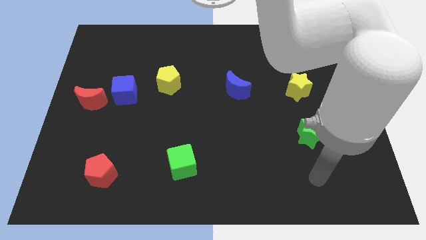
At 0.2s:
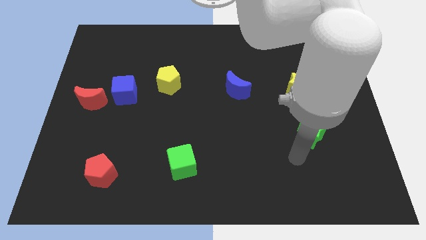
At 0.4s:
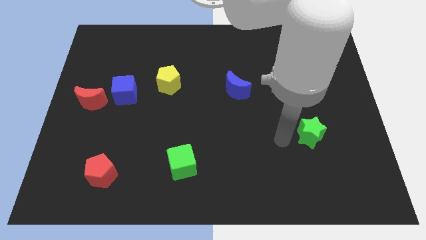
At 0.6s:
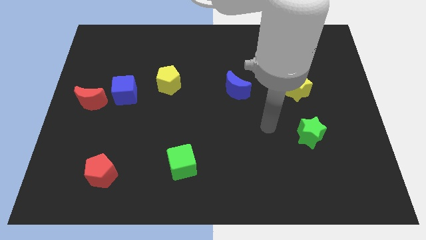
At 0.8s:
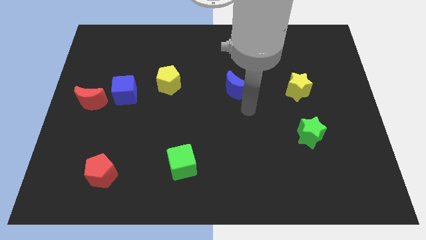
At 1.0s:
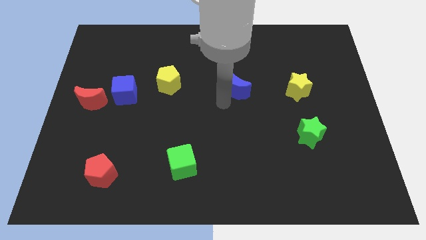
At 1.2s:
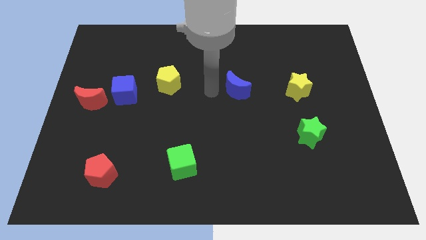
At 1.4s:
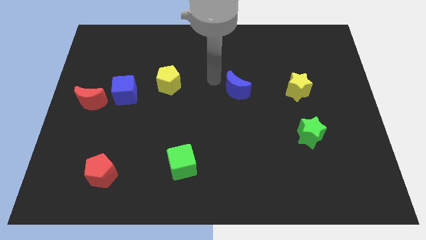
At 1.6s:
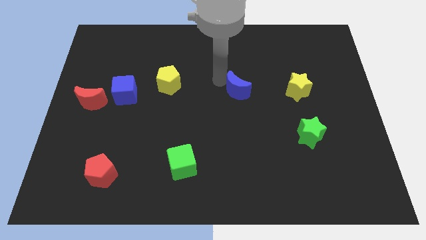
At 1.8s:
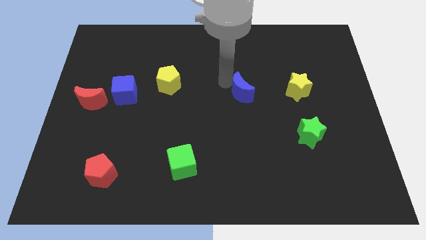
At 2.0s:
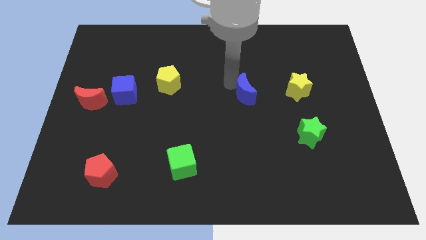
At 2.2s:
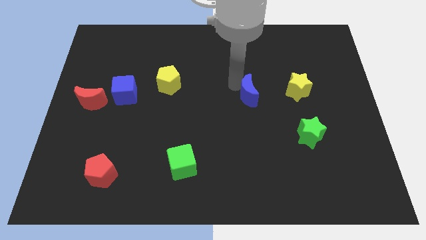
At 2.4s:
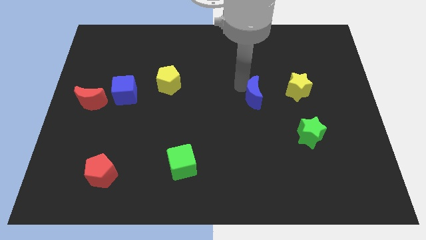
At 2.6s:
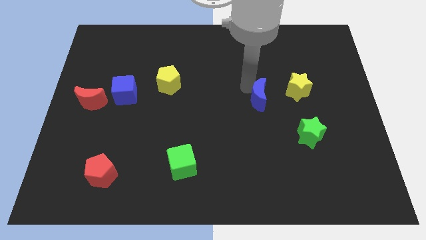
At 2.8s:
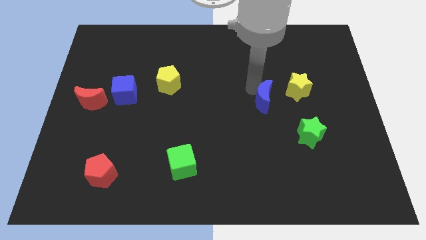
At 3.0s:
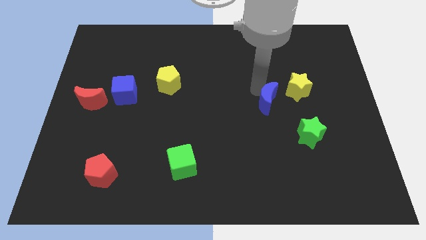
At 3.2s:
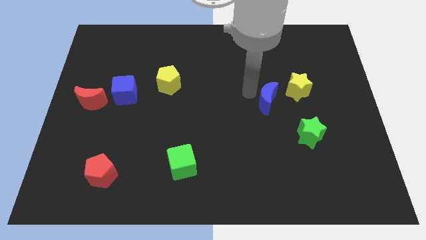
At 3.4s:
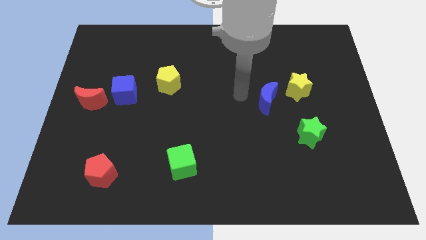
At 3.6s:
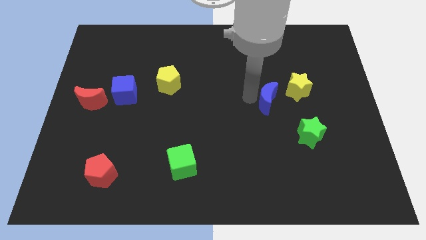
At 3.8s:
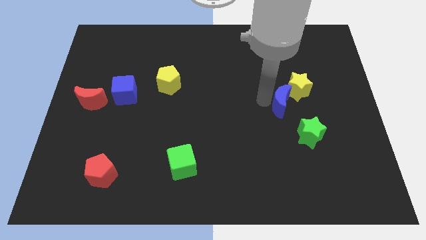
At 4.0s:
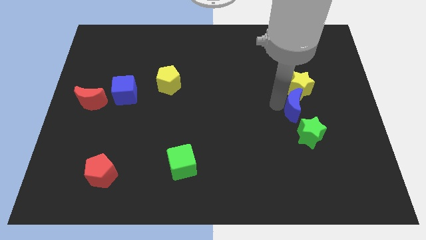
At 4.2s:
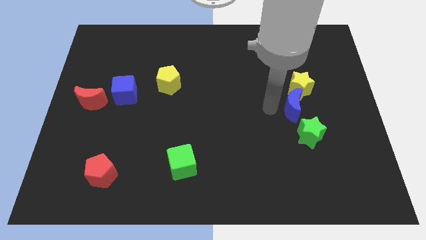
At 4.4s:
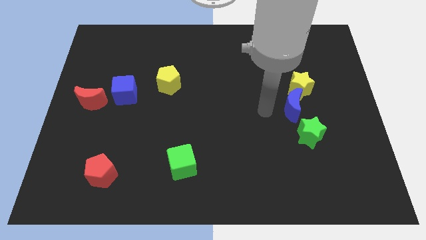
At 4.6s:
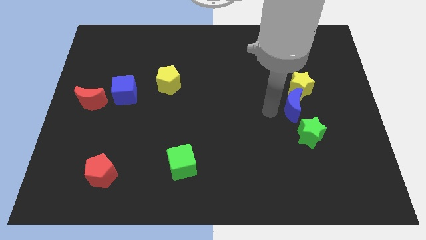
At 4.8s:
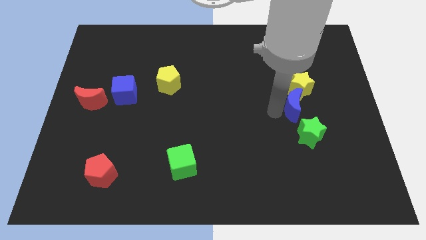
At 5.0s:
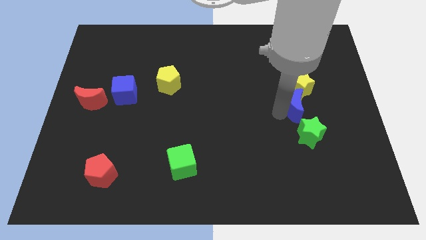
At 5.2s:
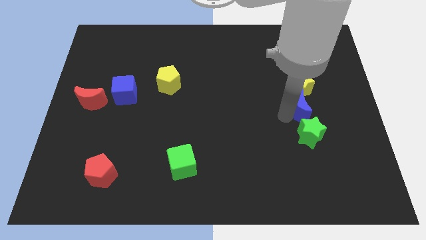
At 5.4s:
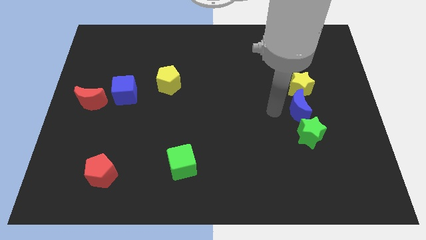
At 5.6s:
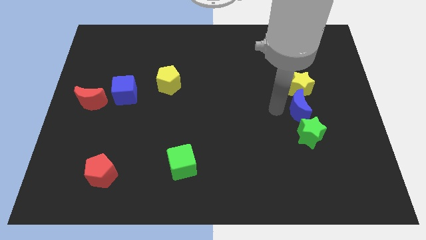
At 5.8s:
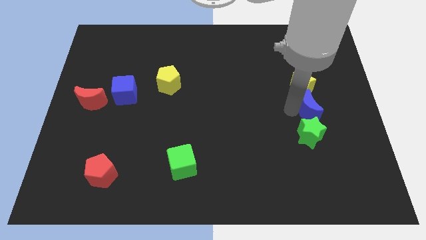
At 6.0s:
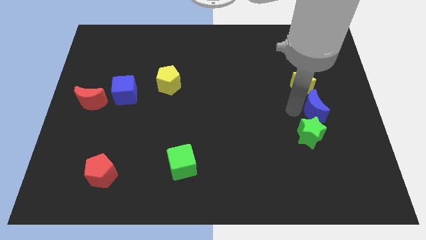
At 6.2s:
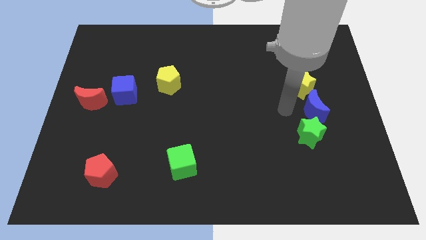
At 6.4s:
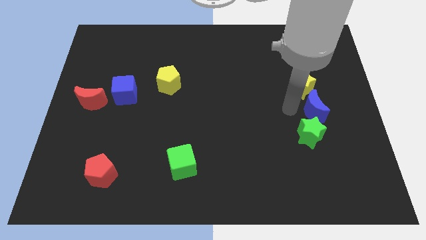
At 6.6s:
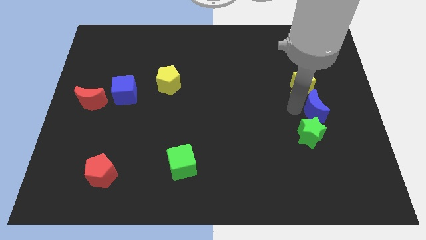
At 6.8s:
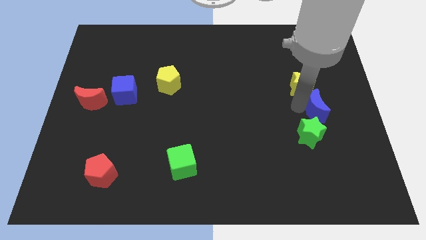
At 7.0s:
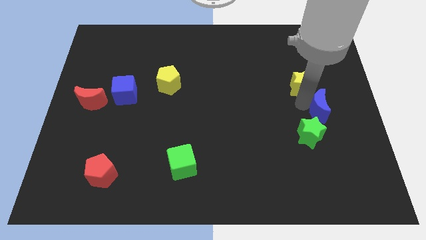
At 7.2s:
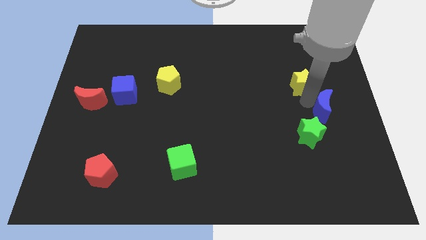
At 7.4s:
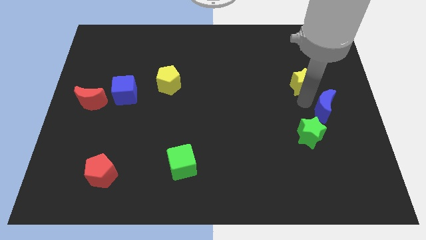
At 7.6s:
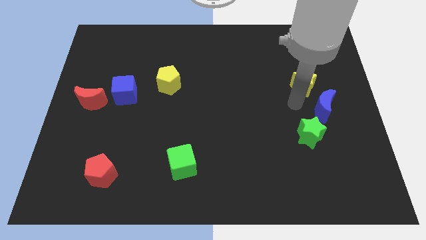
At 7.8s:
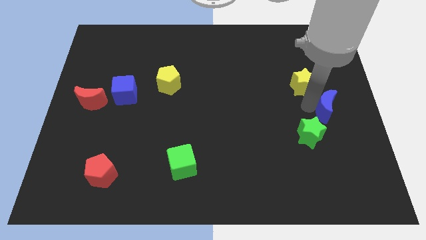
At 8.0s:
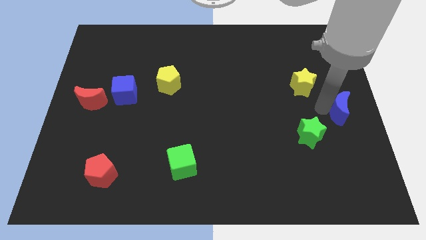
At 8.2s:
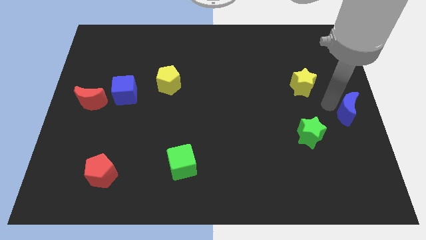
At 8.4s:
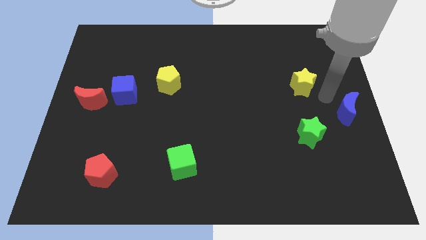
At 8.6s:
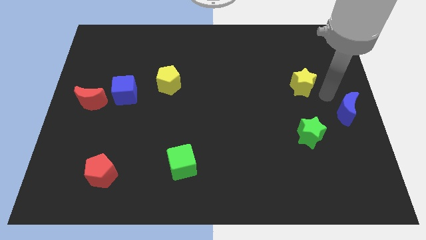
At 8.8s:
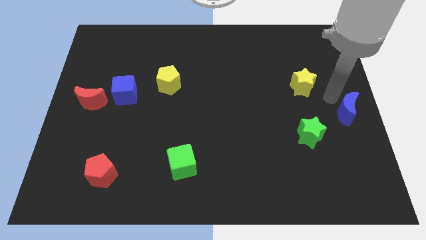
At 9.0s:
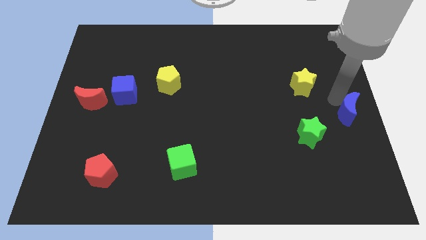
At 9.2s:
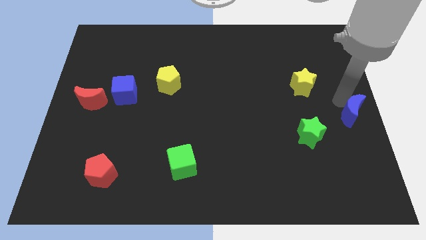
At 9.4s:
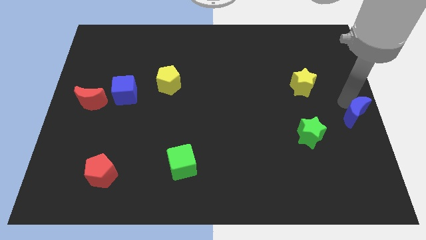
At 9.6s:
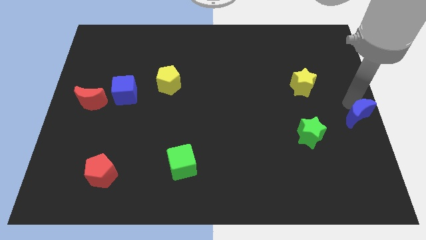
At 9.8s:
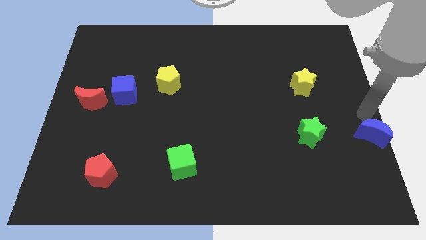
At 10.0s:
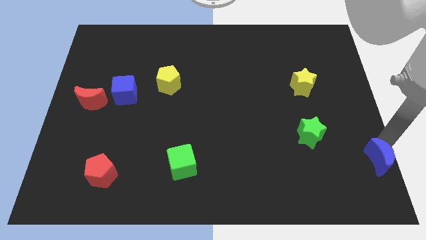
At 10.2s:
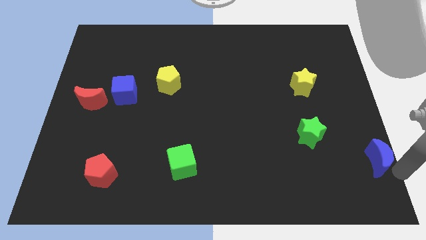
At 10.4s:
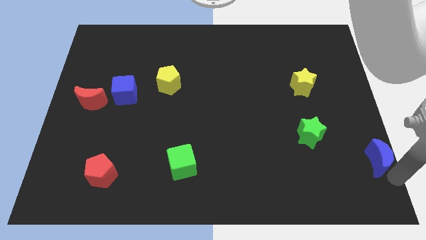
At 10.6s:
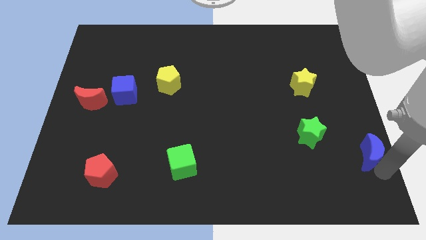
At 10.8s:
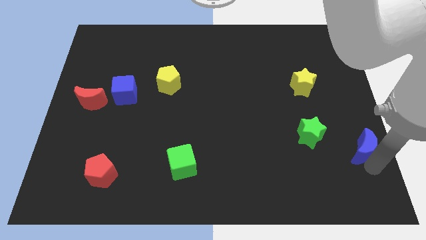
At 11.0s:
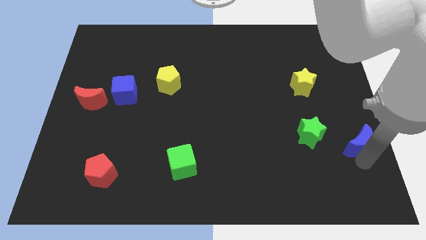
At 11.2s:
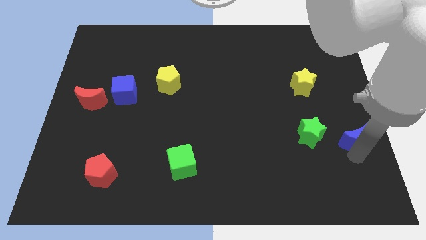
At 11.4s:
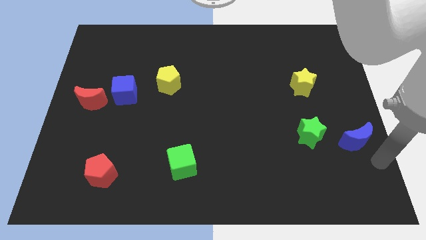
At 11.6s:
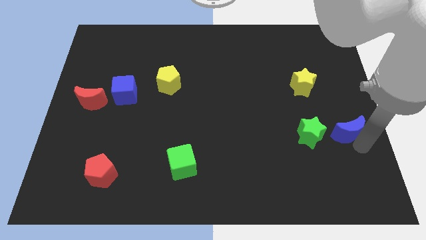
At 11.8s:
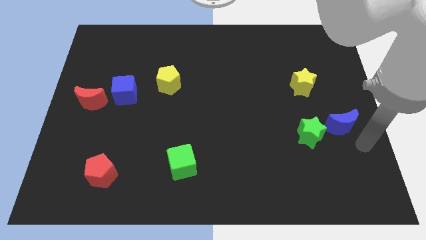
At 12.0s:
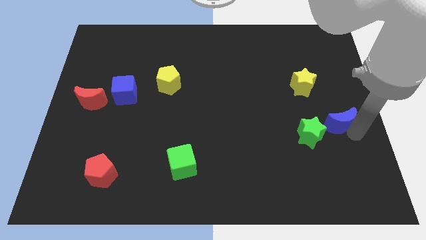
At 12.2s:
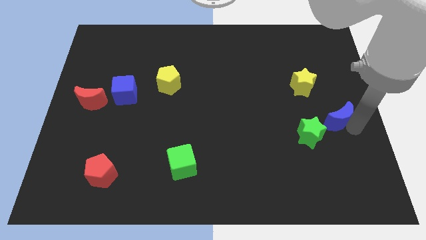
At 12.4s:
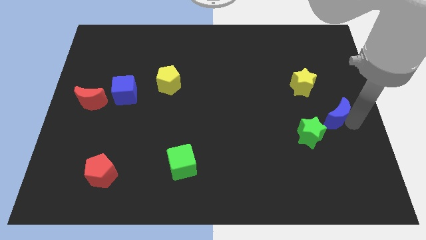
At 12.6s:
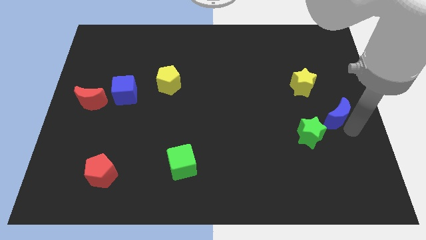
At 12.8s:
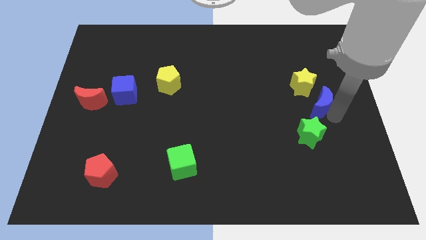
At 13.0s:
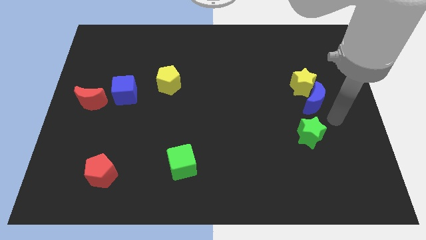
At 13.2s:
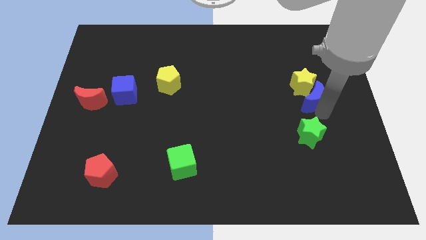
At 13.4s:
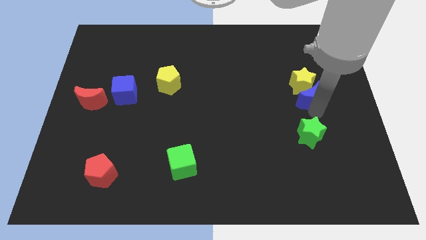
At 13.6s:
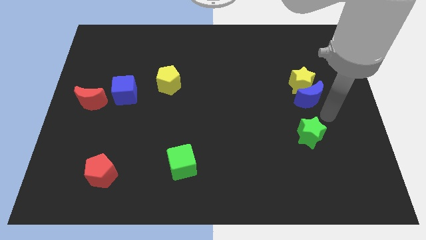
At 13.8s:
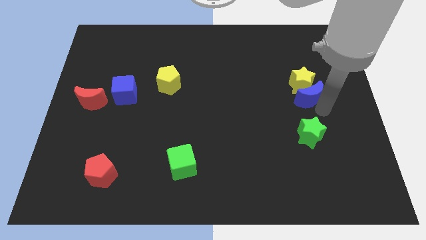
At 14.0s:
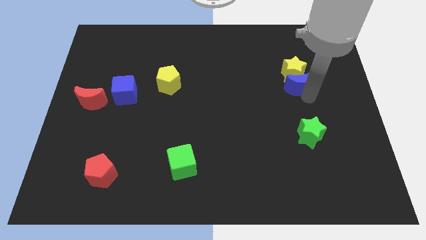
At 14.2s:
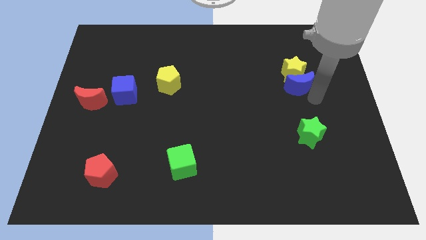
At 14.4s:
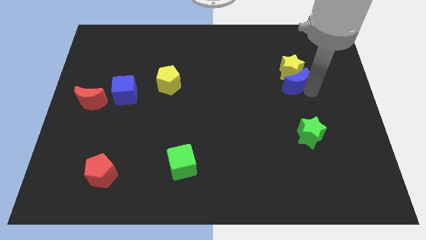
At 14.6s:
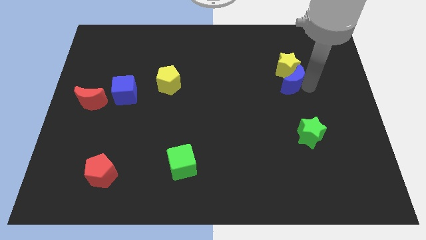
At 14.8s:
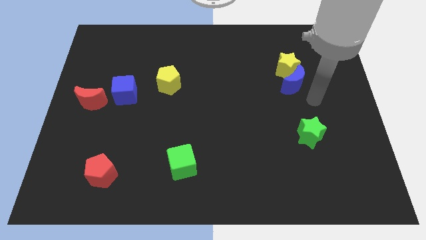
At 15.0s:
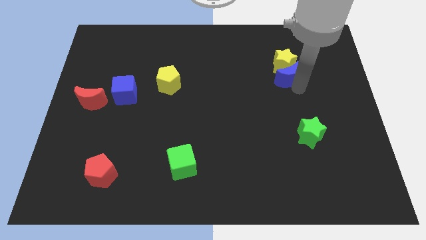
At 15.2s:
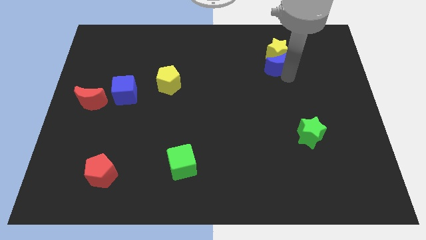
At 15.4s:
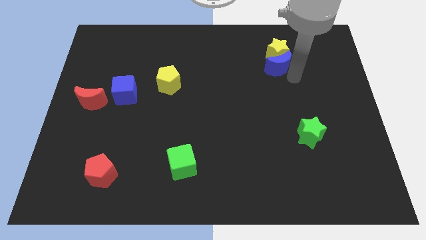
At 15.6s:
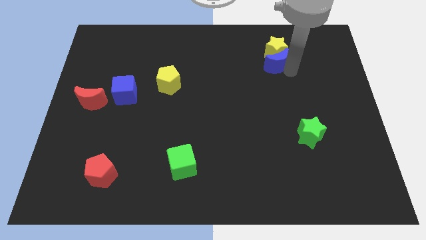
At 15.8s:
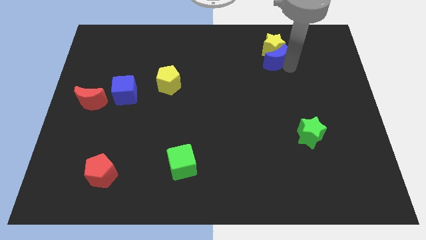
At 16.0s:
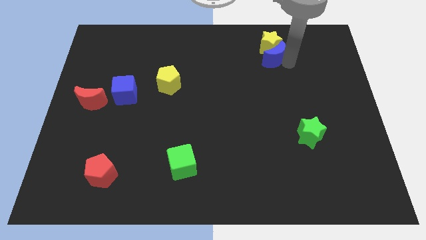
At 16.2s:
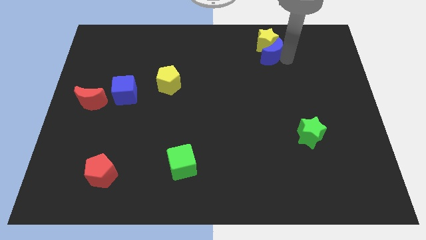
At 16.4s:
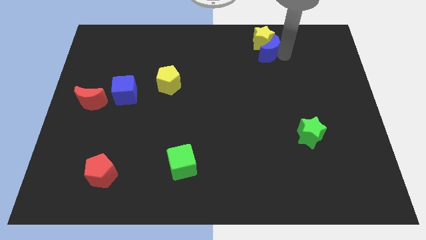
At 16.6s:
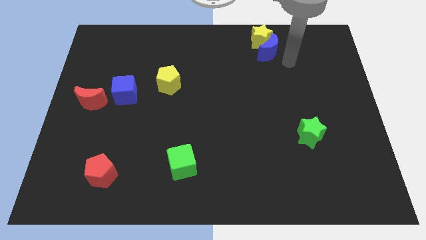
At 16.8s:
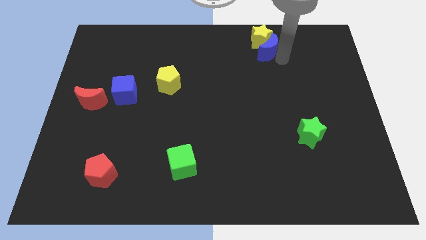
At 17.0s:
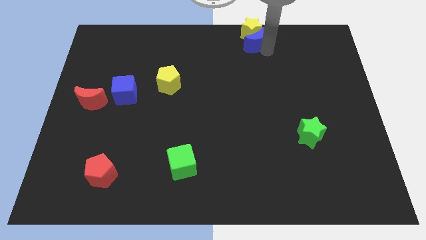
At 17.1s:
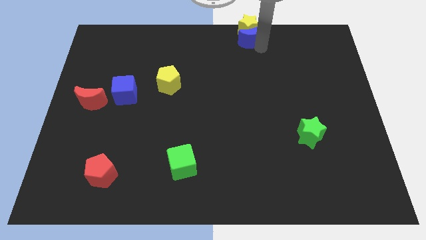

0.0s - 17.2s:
slide the blue moon to the top
